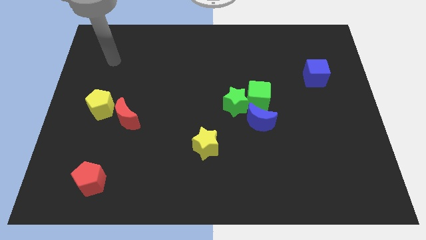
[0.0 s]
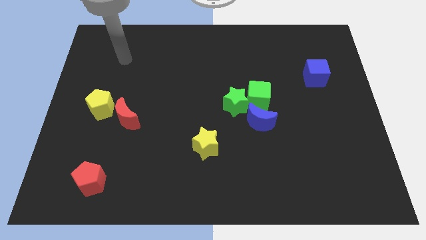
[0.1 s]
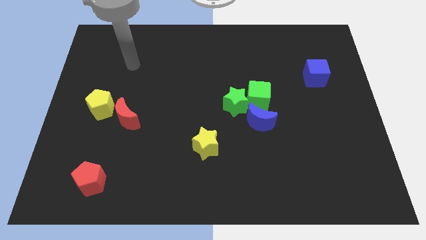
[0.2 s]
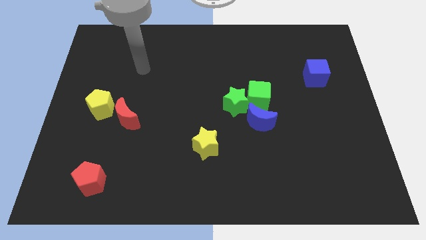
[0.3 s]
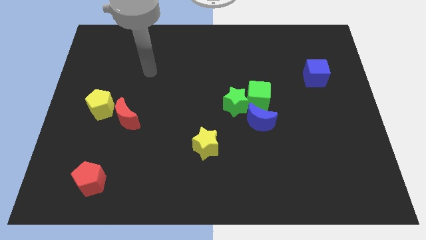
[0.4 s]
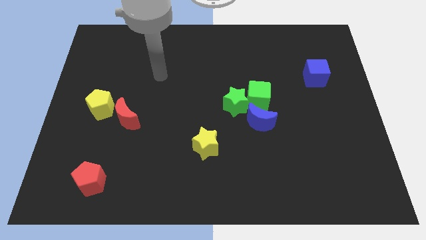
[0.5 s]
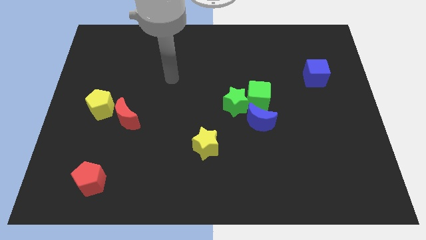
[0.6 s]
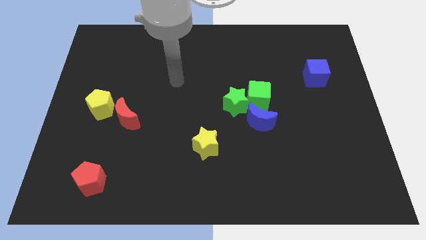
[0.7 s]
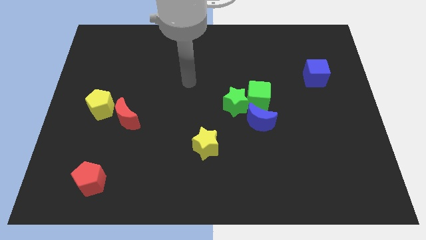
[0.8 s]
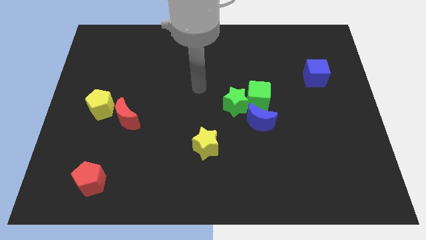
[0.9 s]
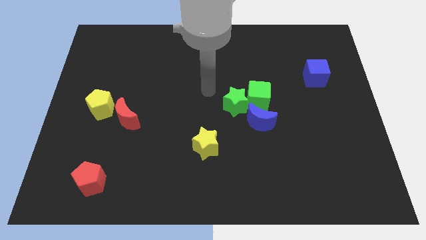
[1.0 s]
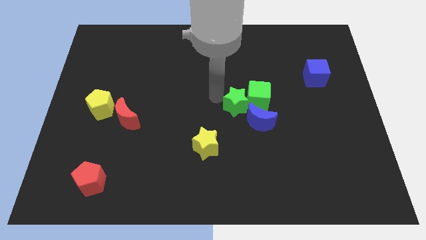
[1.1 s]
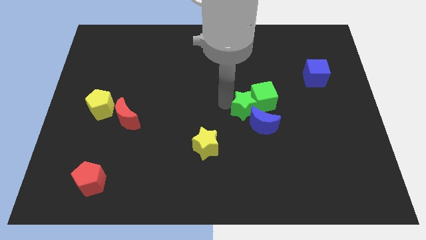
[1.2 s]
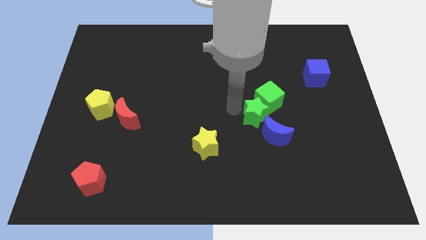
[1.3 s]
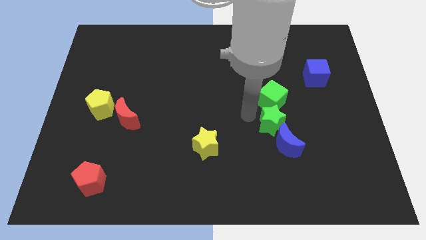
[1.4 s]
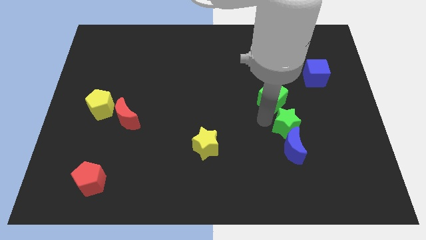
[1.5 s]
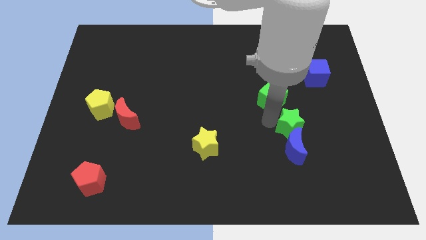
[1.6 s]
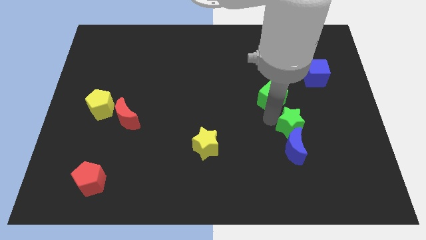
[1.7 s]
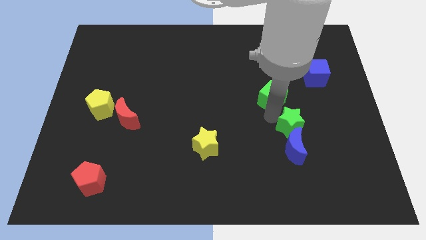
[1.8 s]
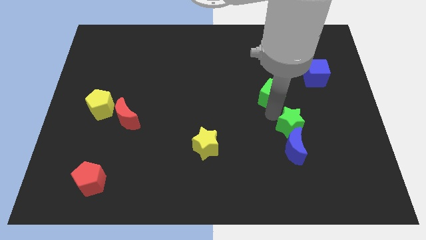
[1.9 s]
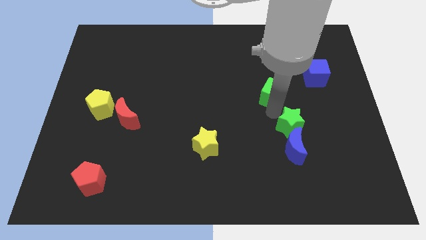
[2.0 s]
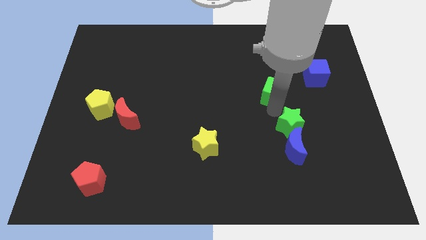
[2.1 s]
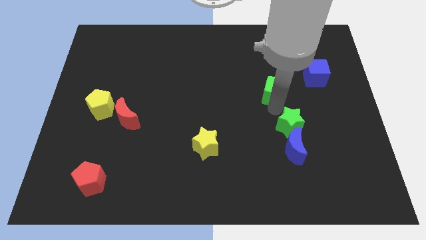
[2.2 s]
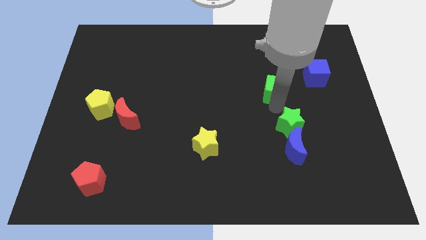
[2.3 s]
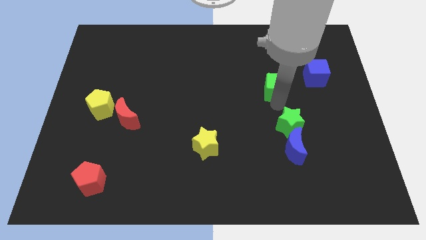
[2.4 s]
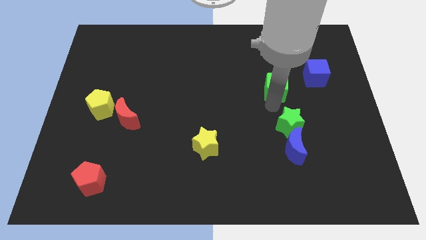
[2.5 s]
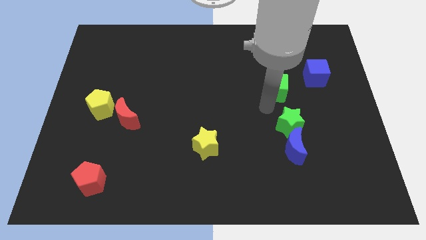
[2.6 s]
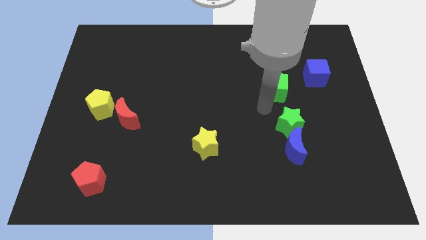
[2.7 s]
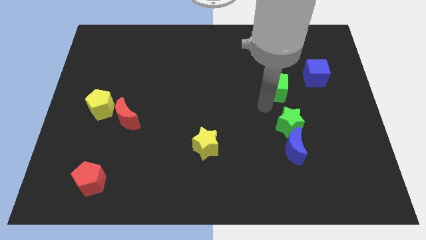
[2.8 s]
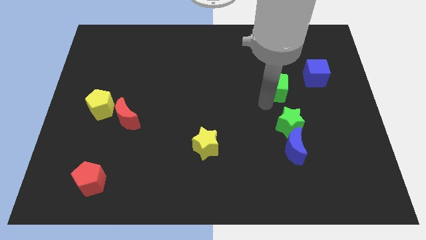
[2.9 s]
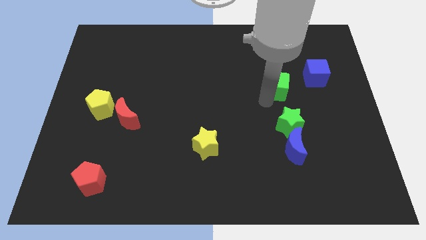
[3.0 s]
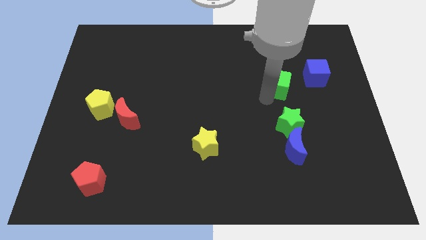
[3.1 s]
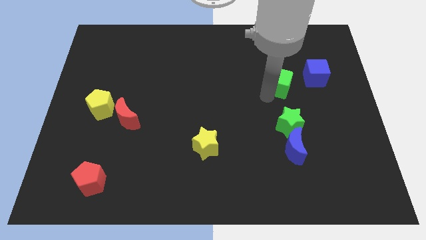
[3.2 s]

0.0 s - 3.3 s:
slide the green cube a bit upwards and to the right diagonally

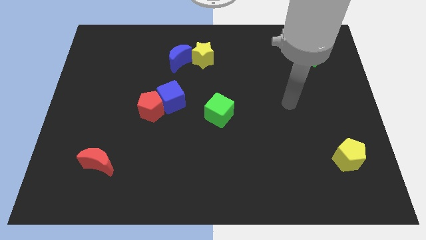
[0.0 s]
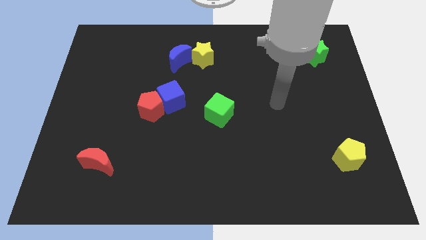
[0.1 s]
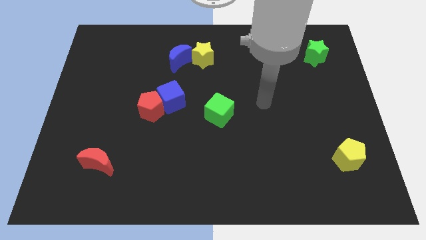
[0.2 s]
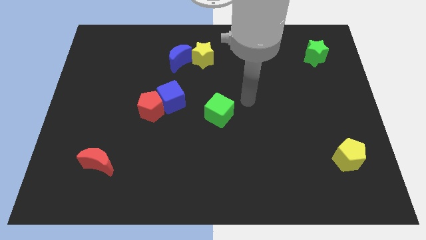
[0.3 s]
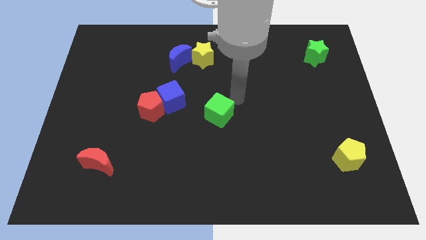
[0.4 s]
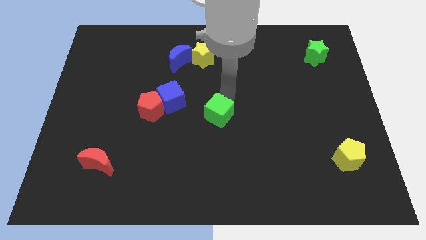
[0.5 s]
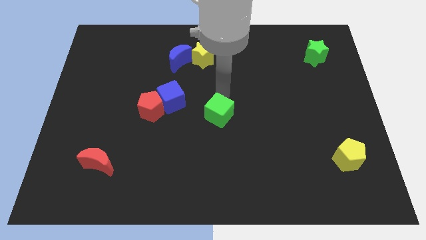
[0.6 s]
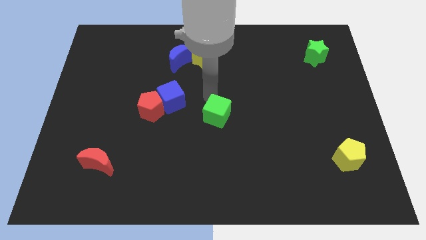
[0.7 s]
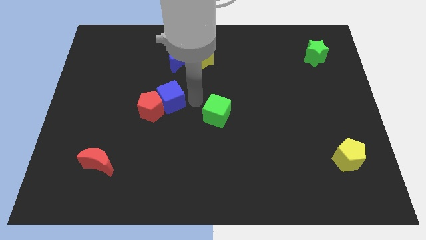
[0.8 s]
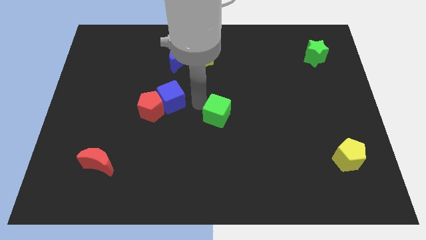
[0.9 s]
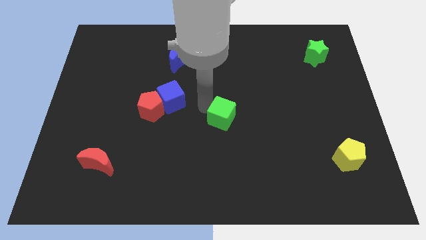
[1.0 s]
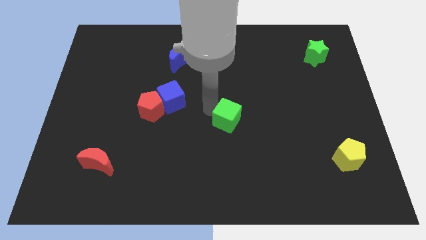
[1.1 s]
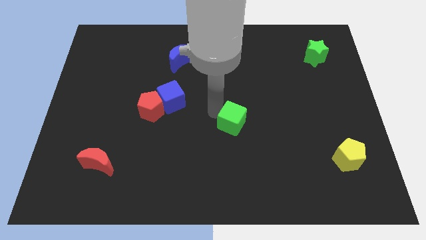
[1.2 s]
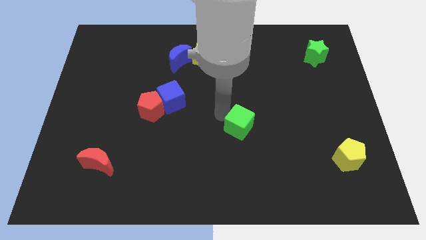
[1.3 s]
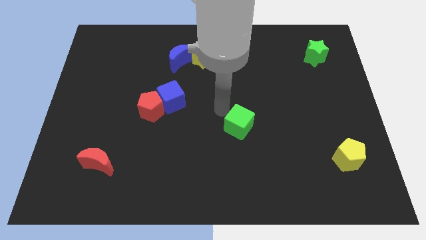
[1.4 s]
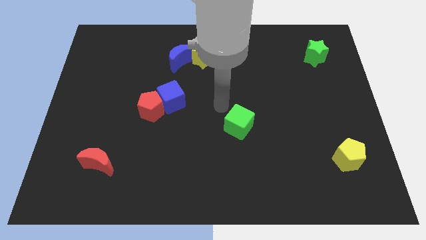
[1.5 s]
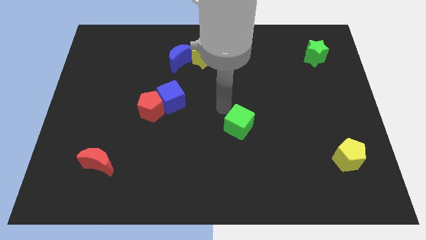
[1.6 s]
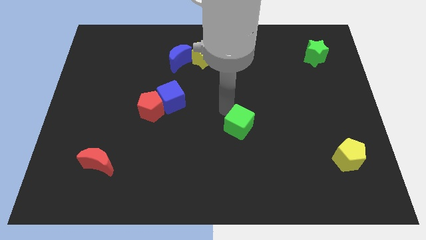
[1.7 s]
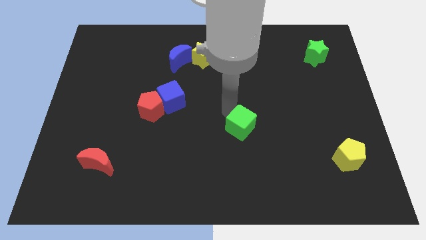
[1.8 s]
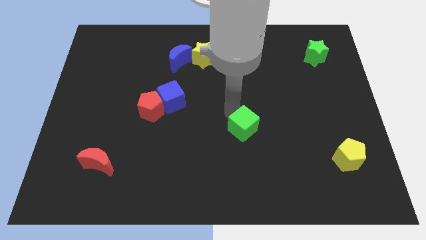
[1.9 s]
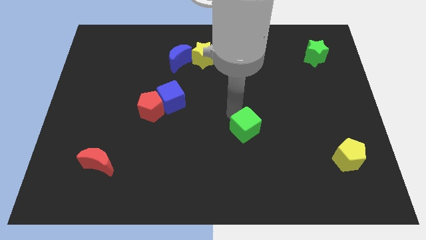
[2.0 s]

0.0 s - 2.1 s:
move the green cube a little bit downwards and right diagonally

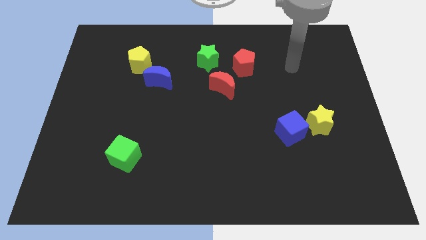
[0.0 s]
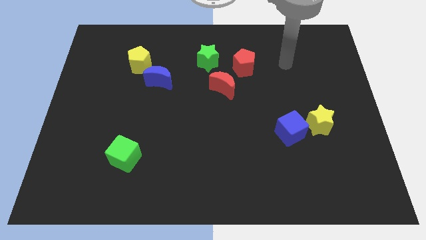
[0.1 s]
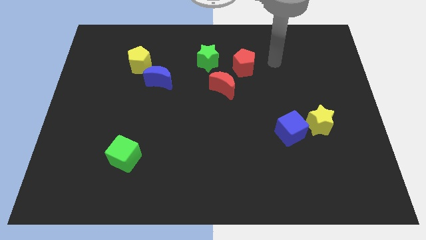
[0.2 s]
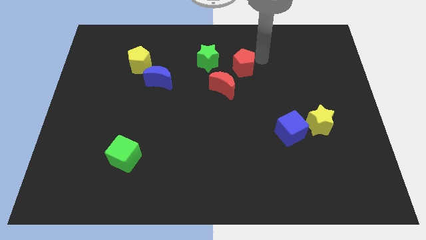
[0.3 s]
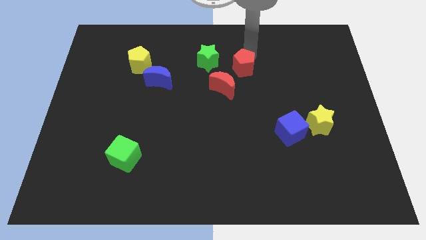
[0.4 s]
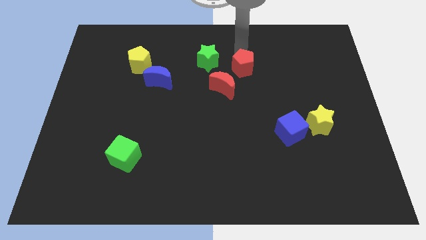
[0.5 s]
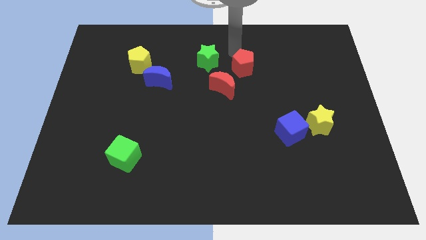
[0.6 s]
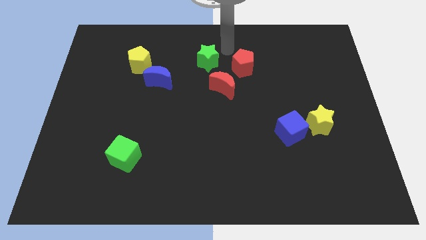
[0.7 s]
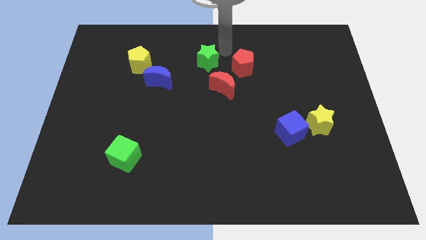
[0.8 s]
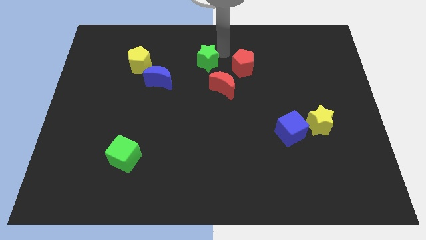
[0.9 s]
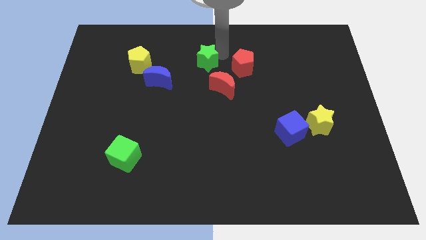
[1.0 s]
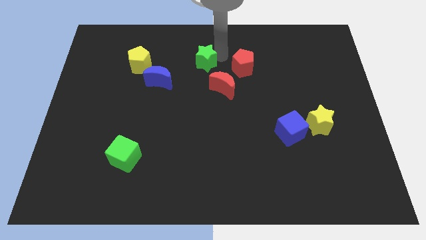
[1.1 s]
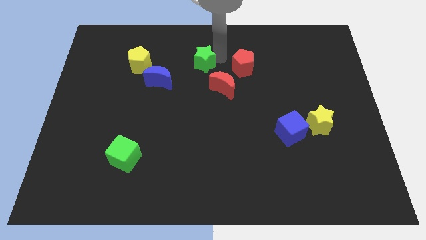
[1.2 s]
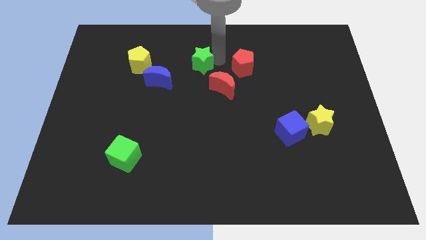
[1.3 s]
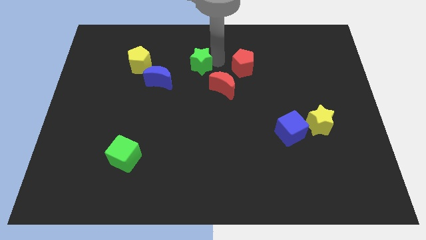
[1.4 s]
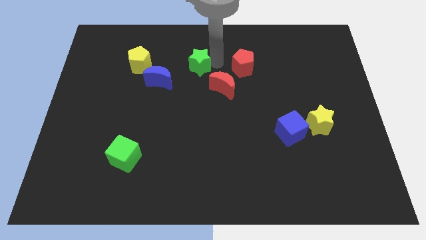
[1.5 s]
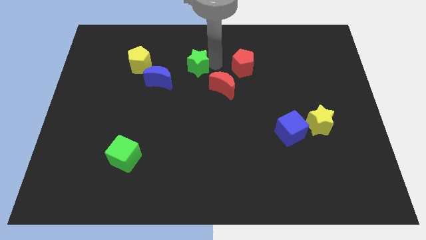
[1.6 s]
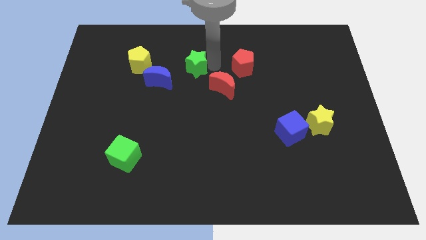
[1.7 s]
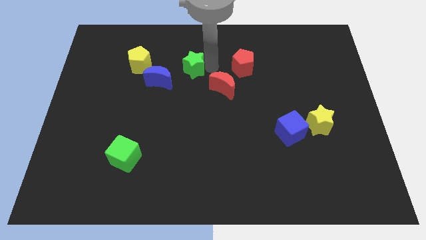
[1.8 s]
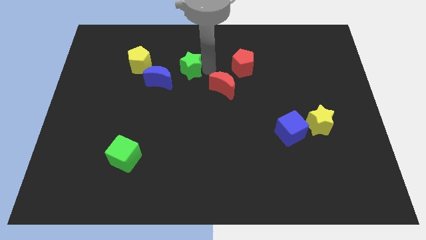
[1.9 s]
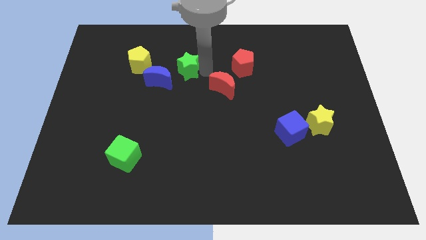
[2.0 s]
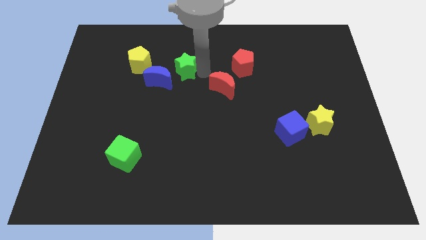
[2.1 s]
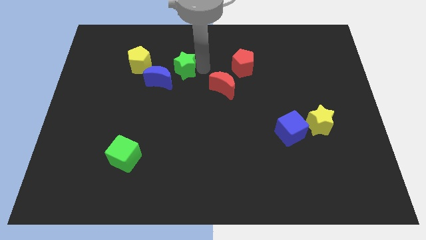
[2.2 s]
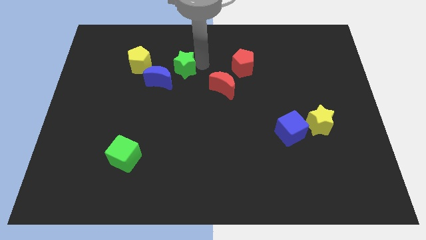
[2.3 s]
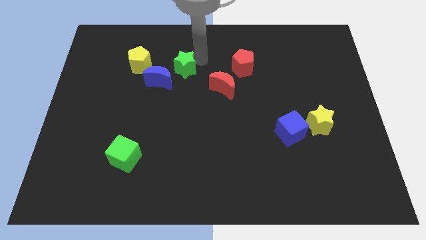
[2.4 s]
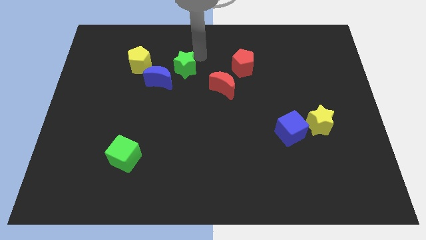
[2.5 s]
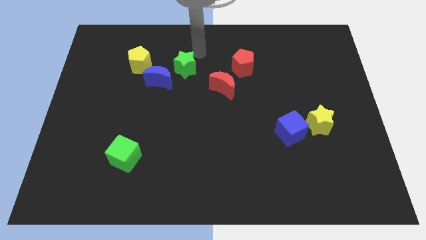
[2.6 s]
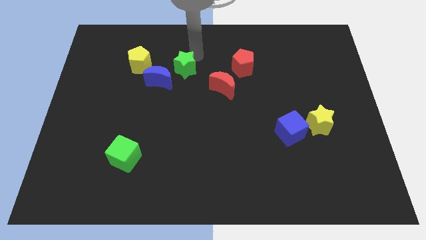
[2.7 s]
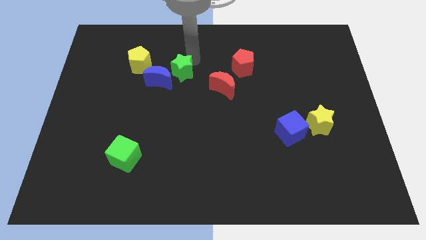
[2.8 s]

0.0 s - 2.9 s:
push the green star a little diagonally downwards and left
